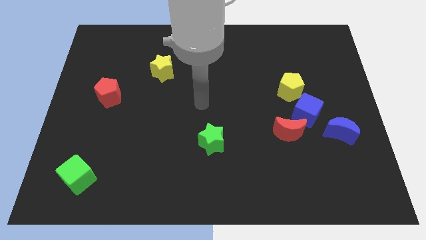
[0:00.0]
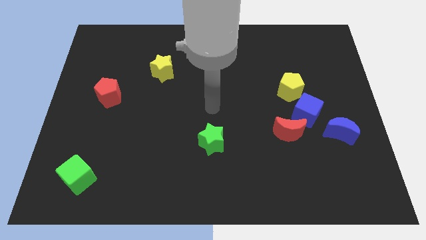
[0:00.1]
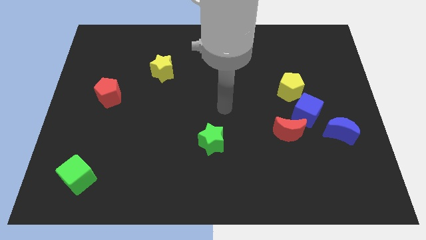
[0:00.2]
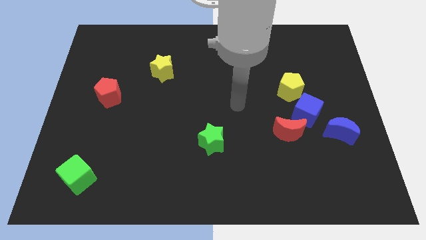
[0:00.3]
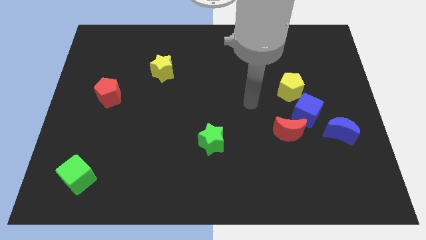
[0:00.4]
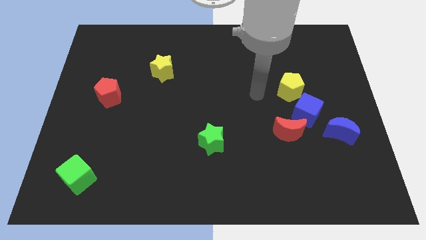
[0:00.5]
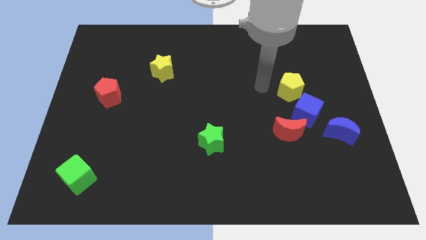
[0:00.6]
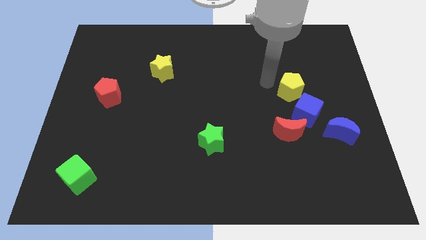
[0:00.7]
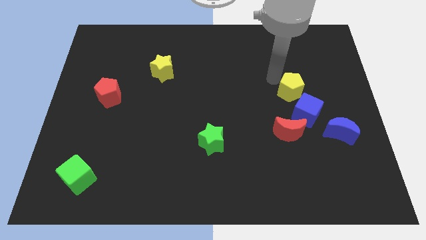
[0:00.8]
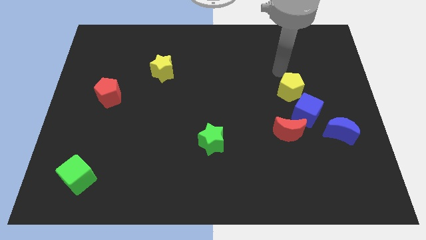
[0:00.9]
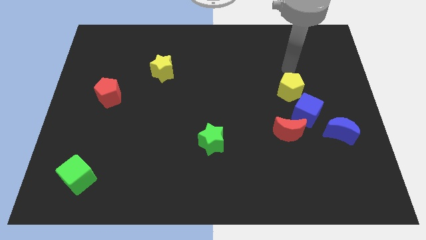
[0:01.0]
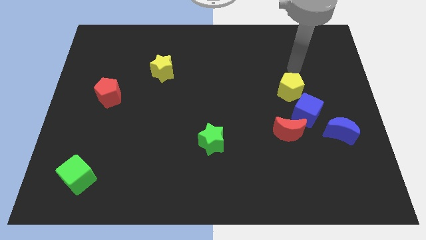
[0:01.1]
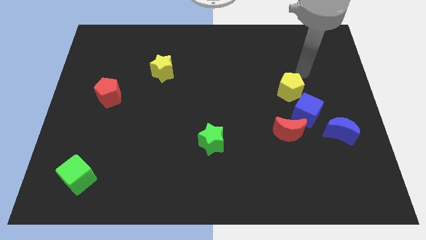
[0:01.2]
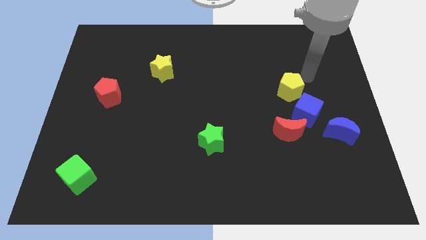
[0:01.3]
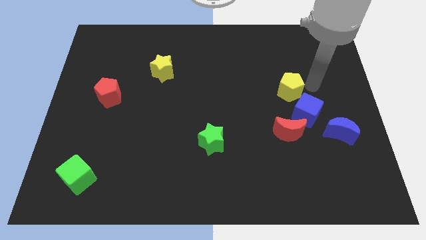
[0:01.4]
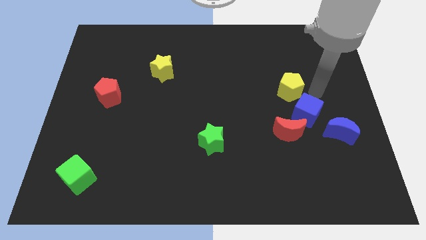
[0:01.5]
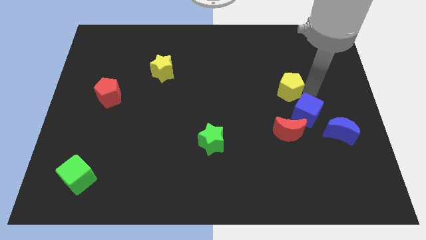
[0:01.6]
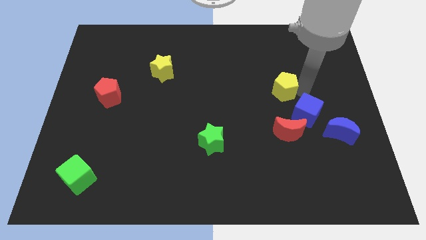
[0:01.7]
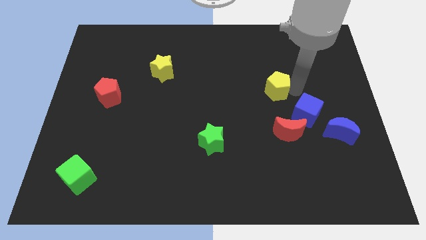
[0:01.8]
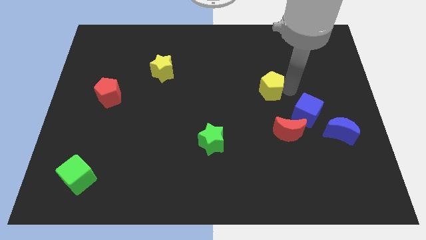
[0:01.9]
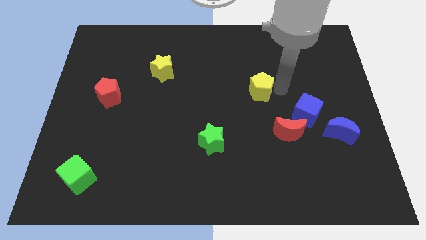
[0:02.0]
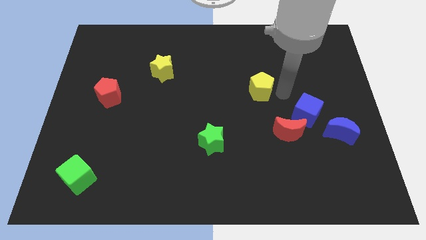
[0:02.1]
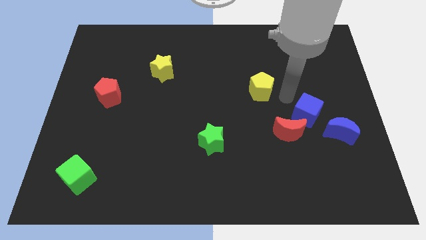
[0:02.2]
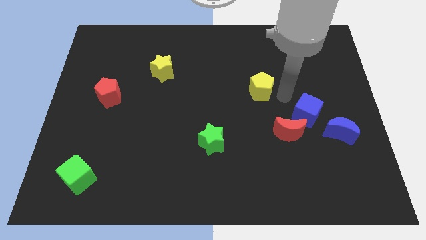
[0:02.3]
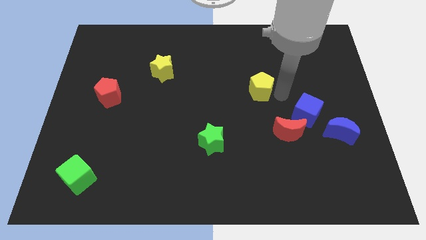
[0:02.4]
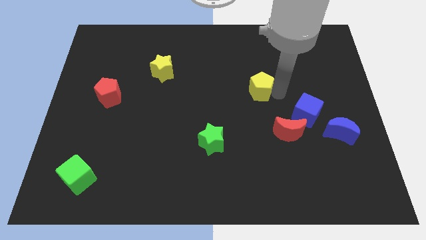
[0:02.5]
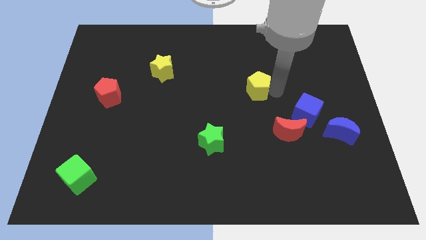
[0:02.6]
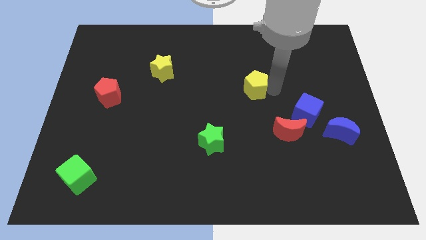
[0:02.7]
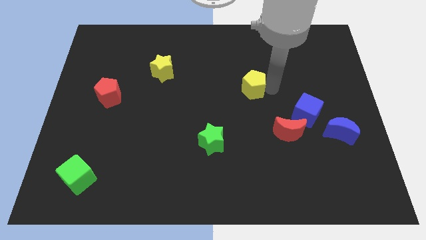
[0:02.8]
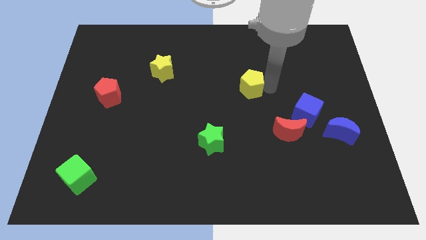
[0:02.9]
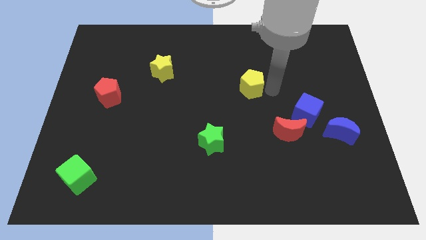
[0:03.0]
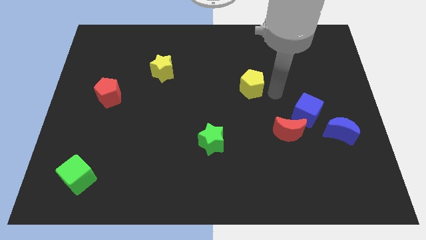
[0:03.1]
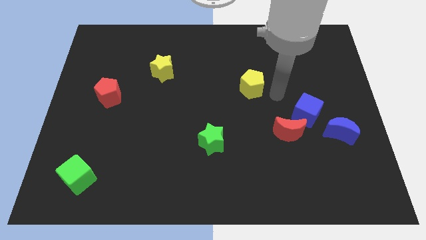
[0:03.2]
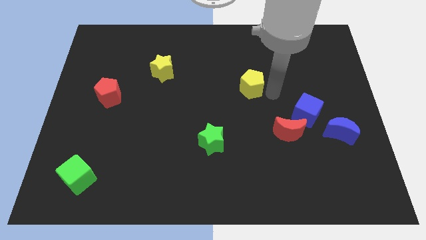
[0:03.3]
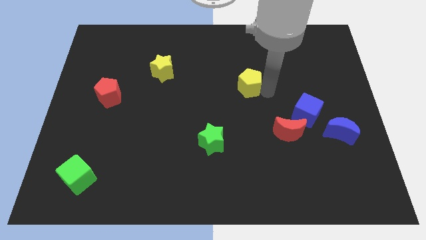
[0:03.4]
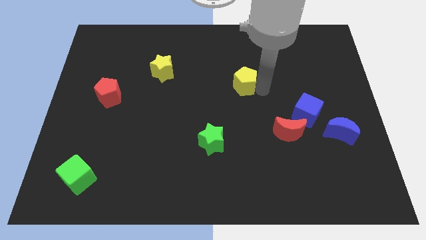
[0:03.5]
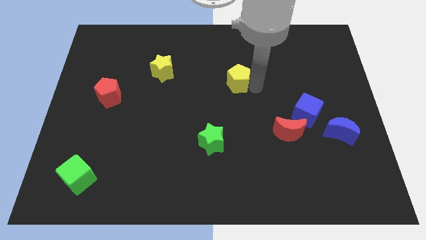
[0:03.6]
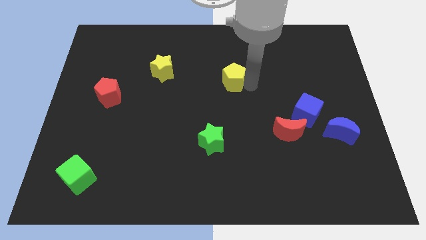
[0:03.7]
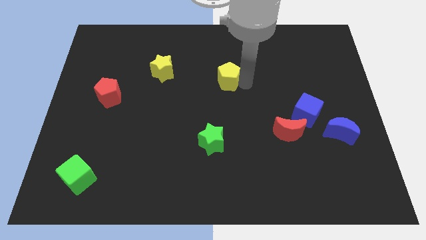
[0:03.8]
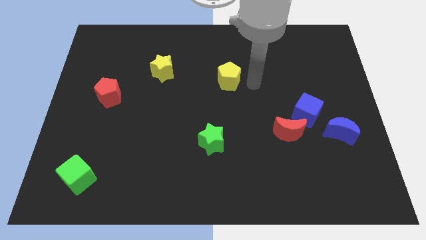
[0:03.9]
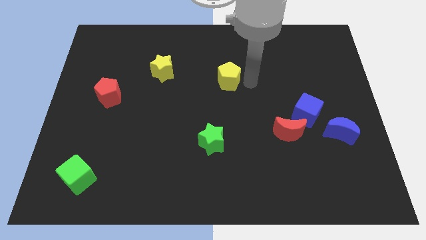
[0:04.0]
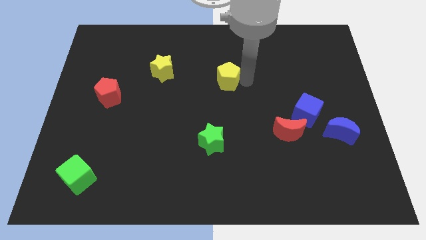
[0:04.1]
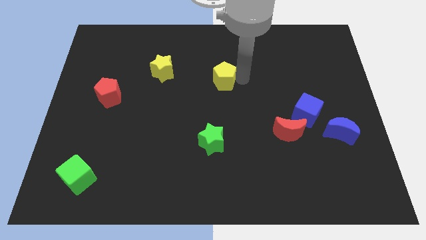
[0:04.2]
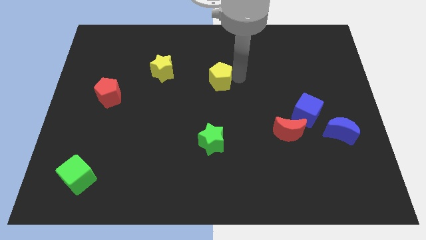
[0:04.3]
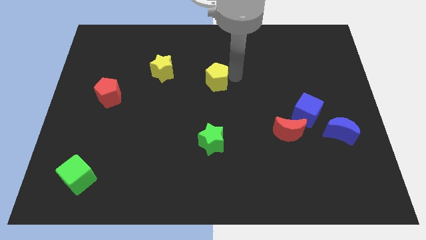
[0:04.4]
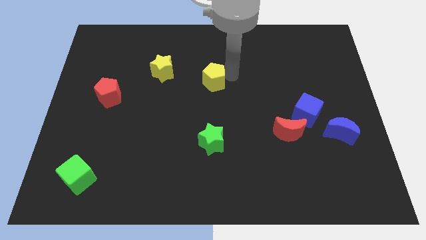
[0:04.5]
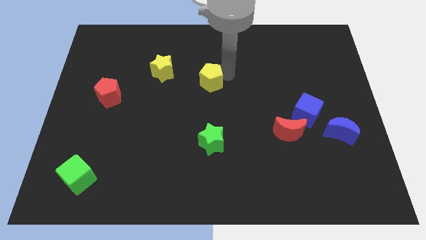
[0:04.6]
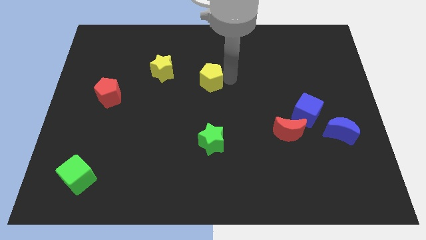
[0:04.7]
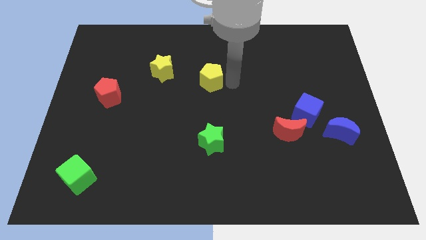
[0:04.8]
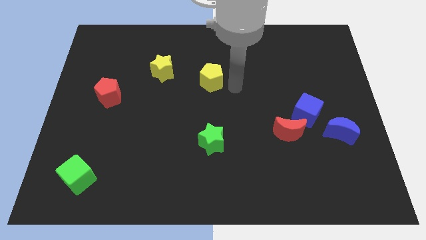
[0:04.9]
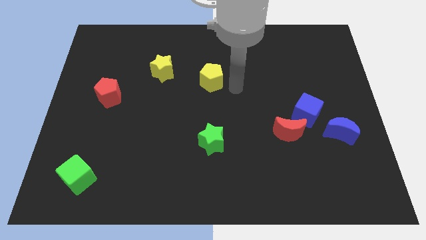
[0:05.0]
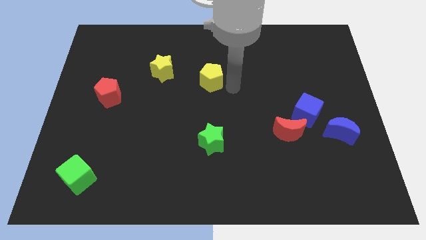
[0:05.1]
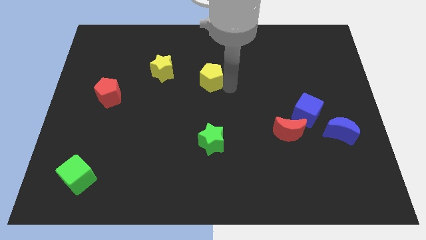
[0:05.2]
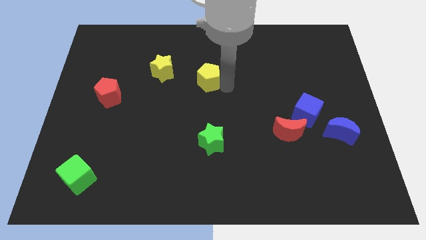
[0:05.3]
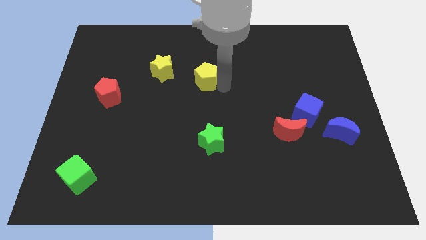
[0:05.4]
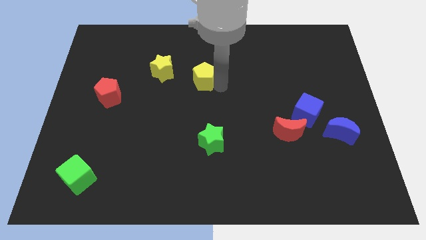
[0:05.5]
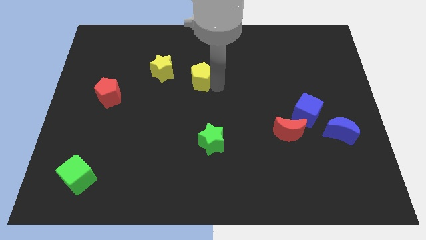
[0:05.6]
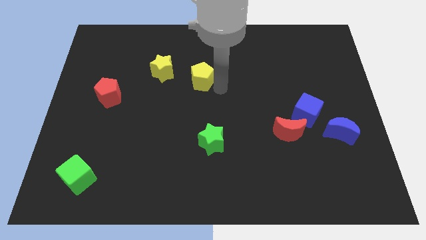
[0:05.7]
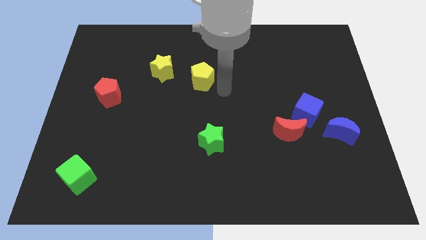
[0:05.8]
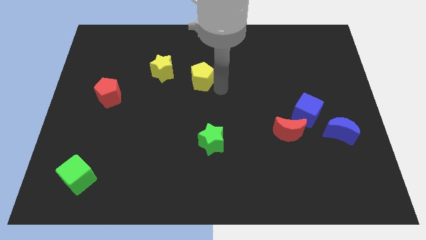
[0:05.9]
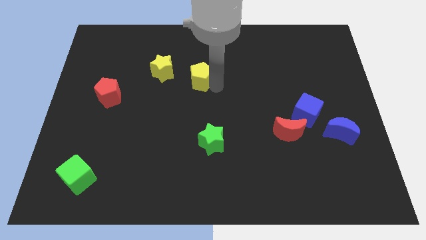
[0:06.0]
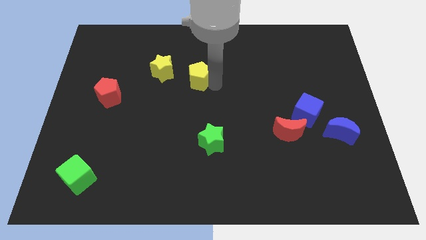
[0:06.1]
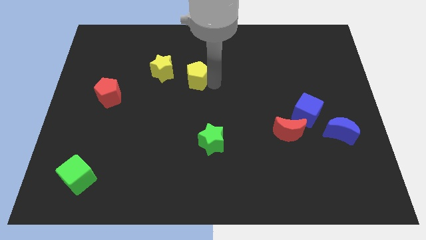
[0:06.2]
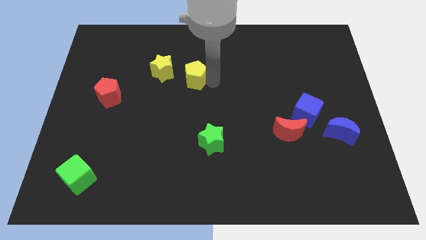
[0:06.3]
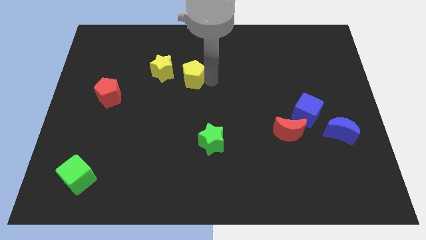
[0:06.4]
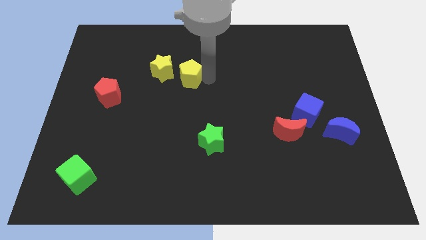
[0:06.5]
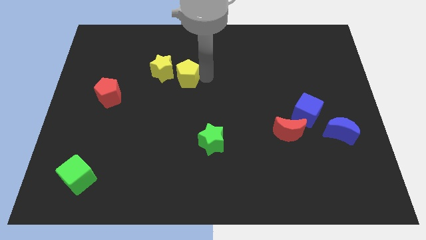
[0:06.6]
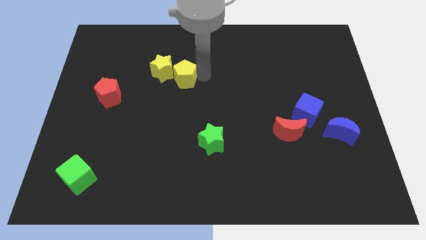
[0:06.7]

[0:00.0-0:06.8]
push the yellow pentagon towards the yellow star
